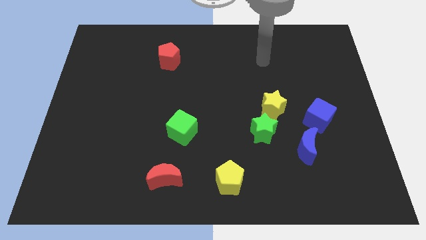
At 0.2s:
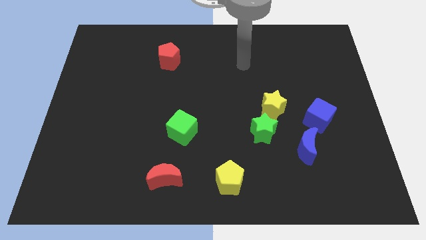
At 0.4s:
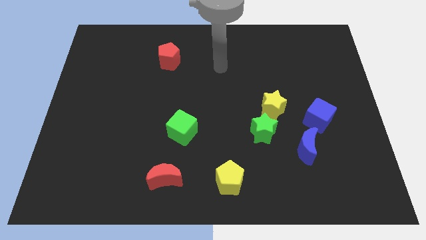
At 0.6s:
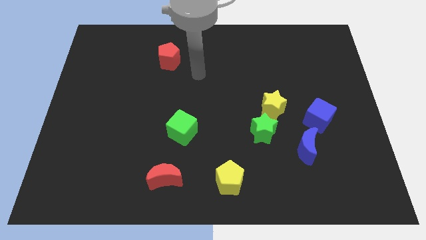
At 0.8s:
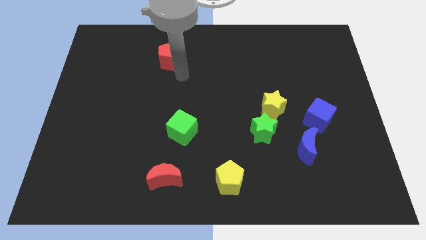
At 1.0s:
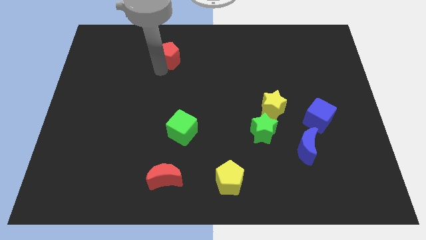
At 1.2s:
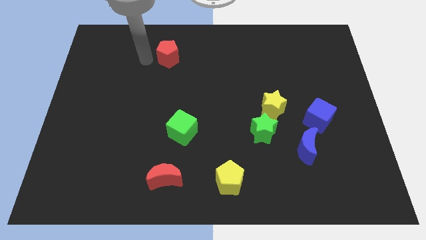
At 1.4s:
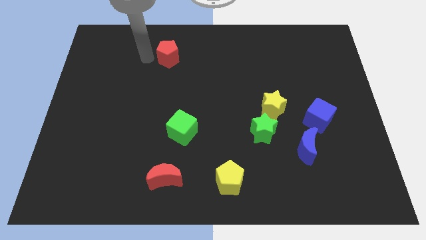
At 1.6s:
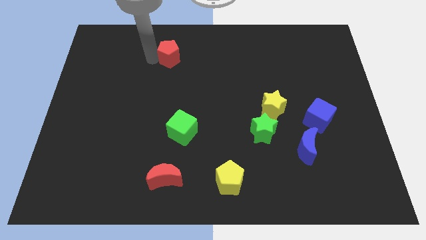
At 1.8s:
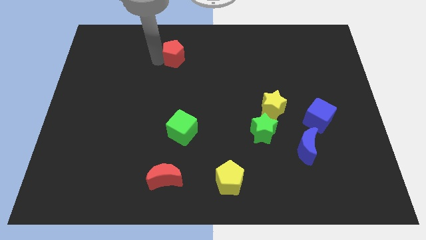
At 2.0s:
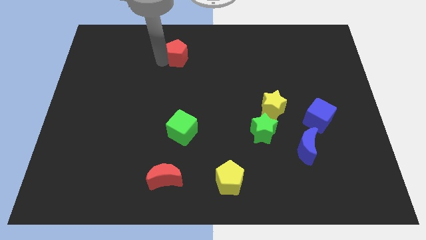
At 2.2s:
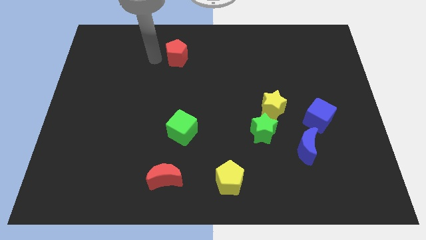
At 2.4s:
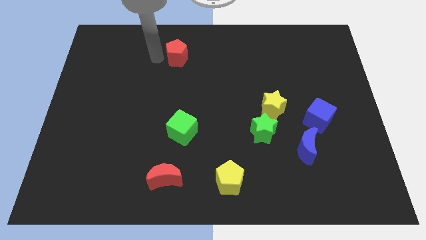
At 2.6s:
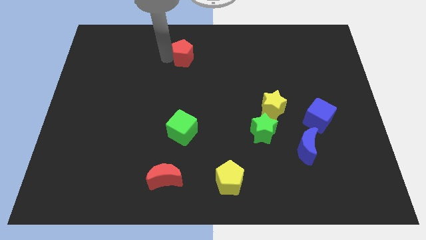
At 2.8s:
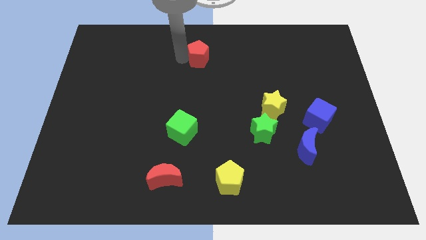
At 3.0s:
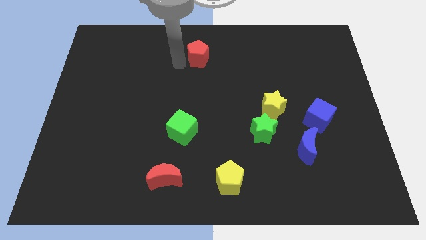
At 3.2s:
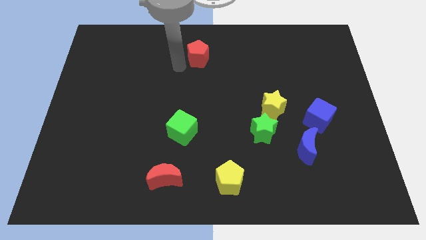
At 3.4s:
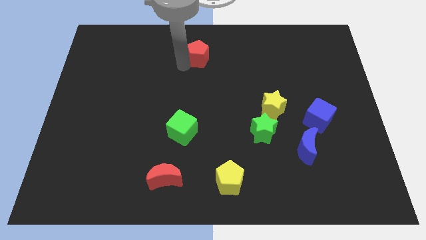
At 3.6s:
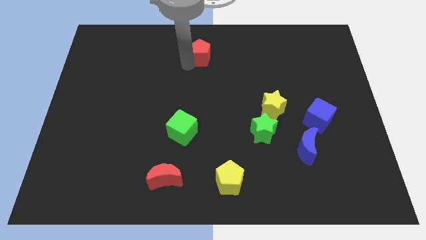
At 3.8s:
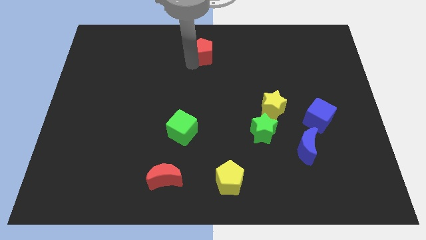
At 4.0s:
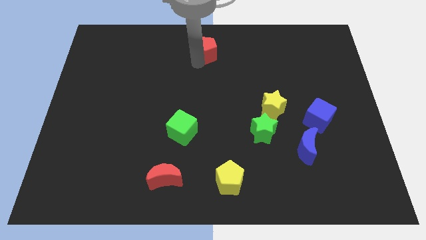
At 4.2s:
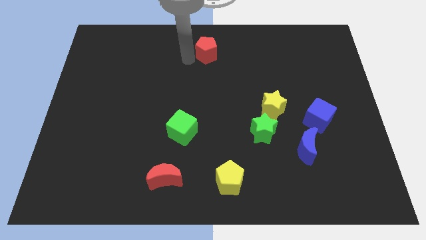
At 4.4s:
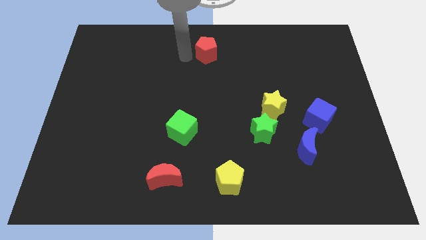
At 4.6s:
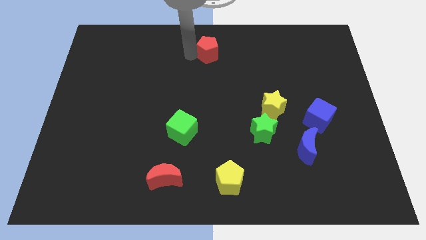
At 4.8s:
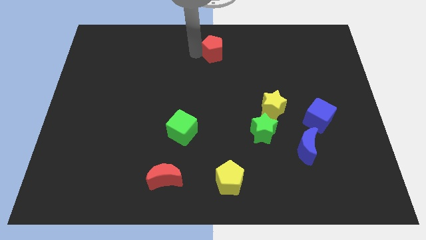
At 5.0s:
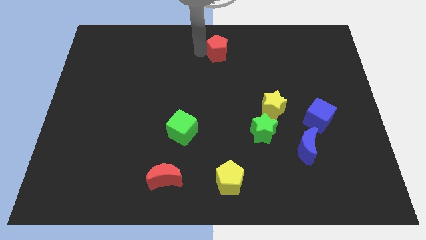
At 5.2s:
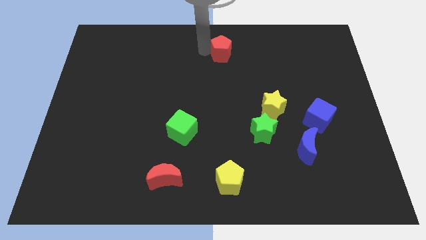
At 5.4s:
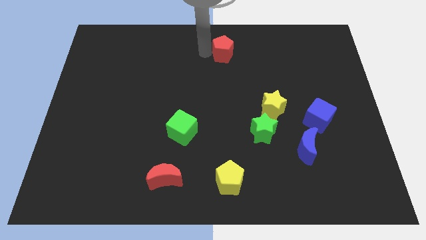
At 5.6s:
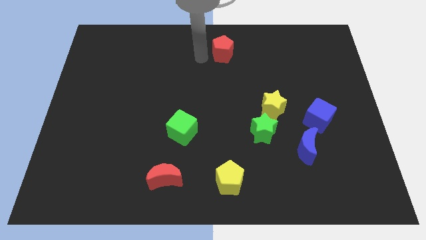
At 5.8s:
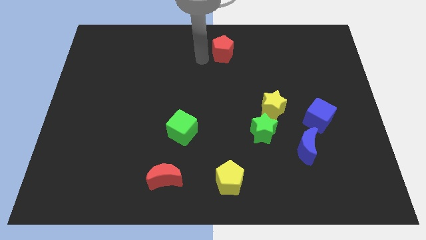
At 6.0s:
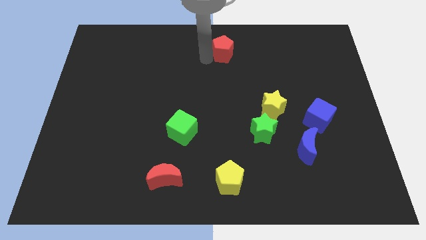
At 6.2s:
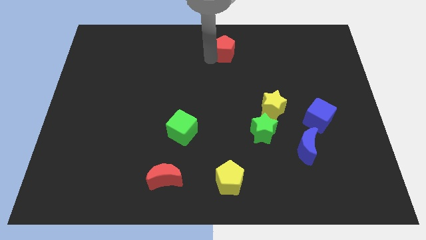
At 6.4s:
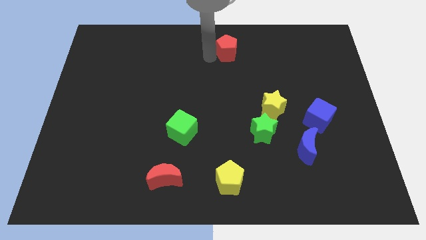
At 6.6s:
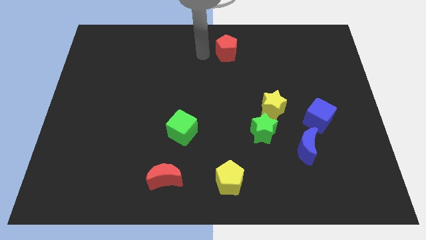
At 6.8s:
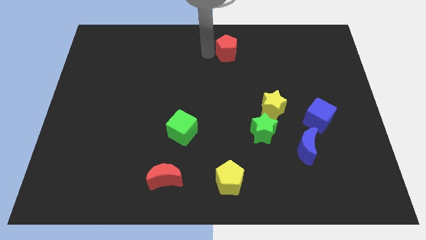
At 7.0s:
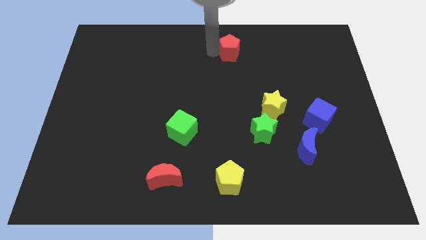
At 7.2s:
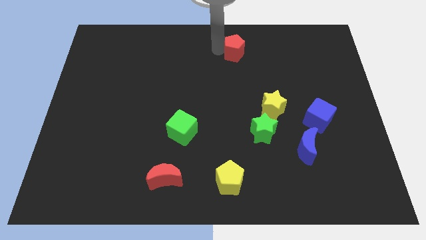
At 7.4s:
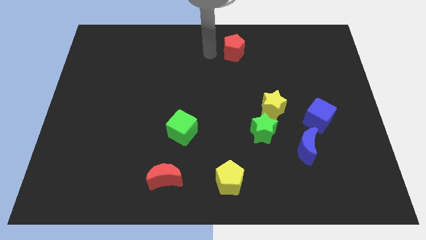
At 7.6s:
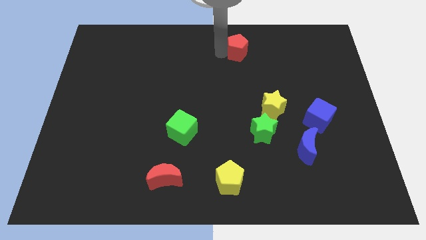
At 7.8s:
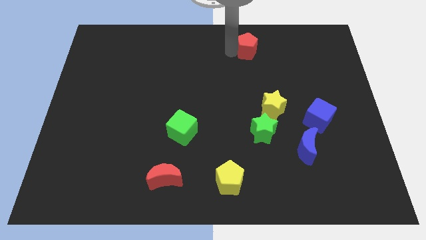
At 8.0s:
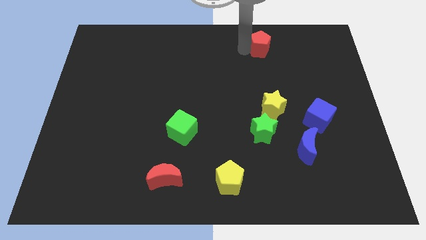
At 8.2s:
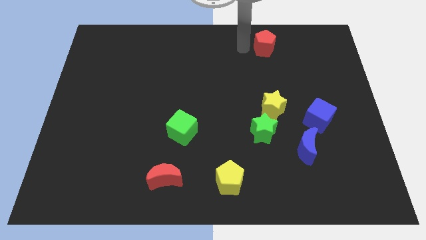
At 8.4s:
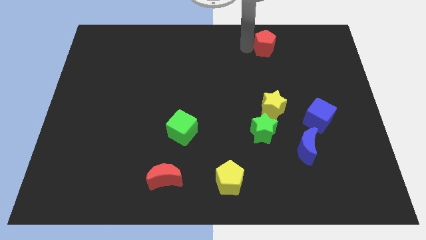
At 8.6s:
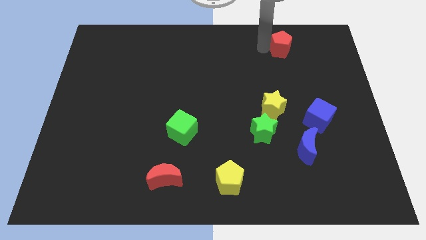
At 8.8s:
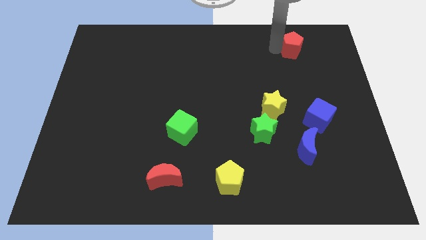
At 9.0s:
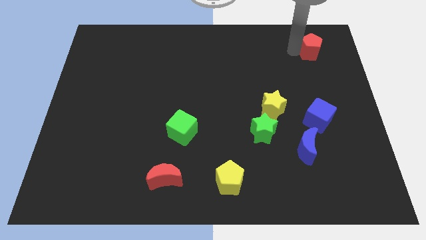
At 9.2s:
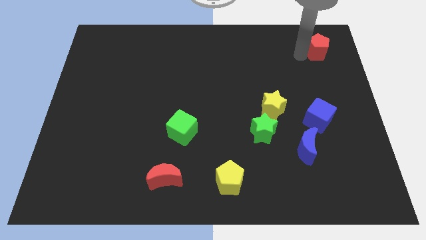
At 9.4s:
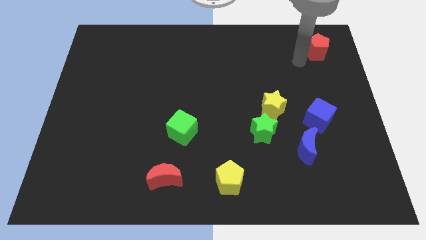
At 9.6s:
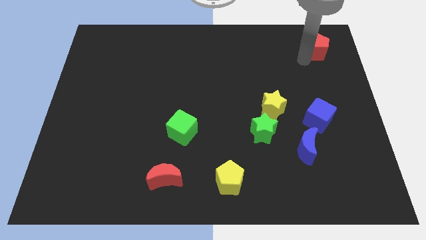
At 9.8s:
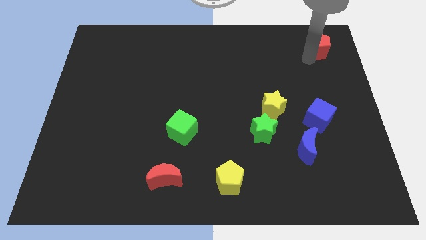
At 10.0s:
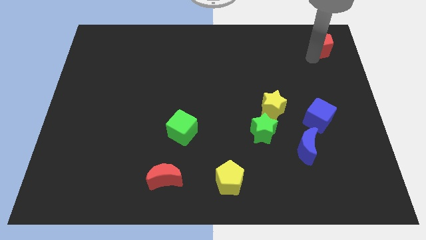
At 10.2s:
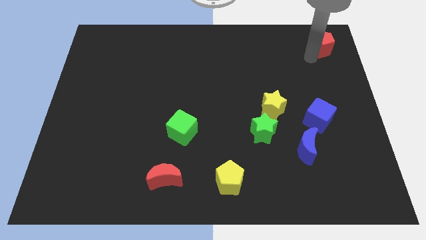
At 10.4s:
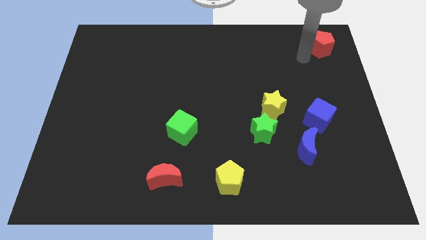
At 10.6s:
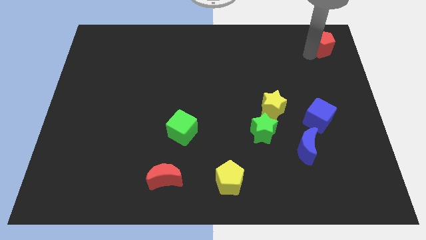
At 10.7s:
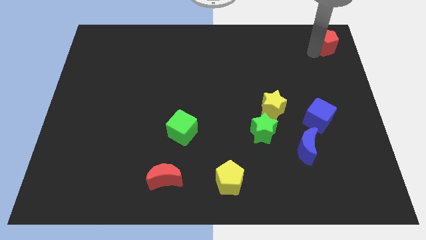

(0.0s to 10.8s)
put the red pentagon to the top right corner

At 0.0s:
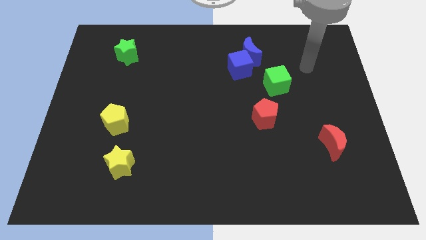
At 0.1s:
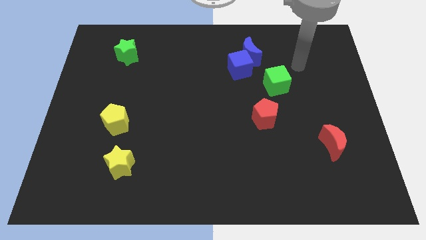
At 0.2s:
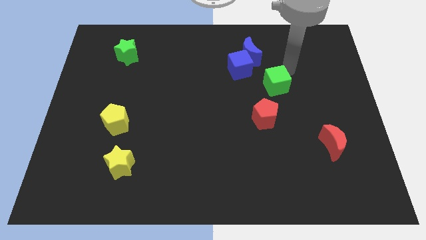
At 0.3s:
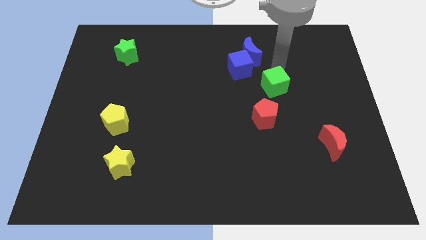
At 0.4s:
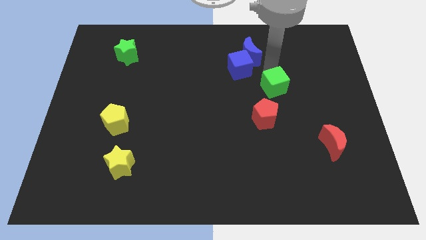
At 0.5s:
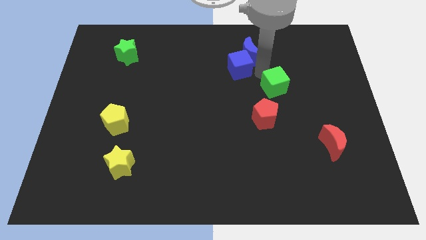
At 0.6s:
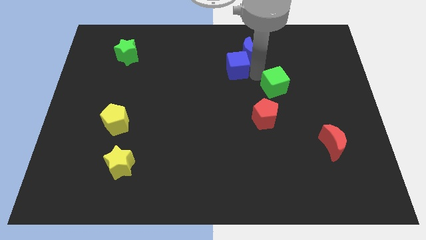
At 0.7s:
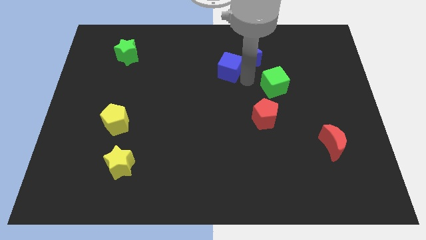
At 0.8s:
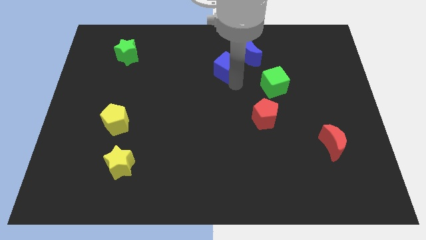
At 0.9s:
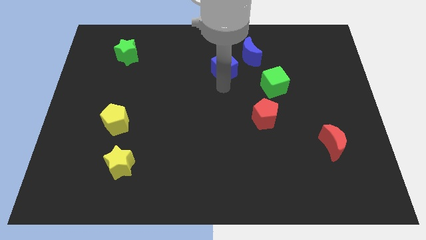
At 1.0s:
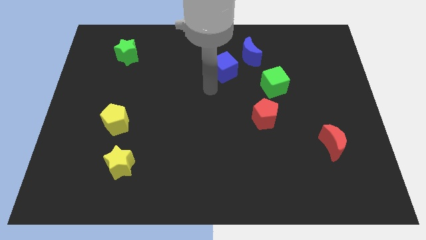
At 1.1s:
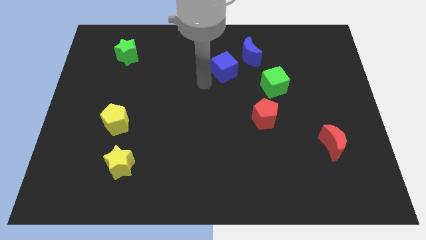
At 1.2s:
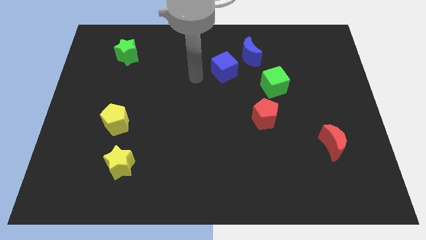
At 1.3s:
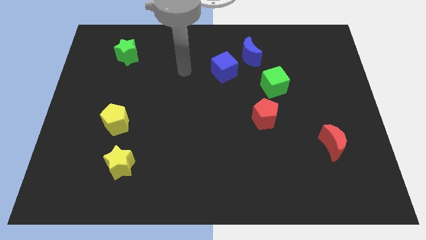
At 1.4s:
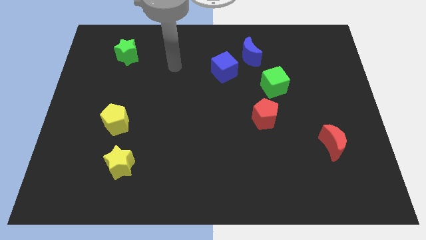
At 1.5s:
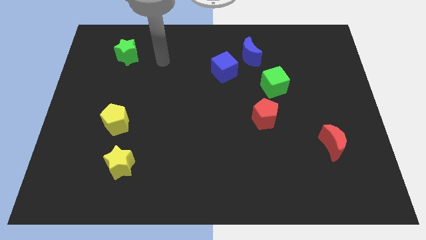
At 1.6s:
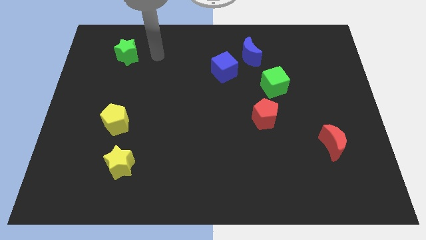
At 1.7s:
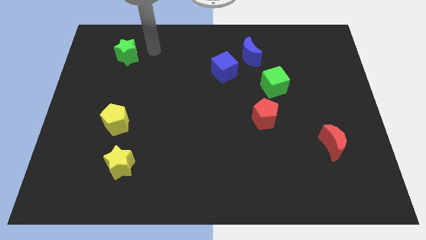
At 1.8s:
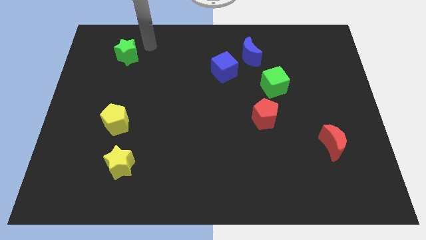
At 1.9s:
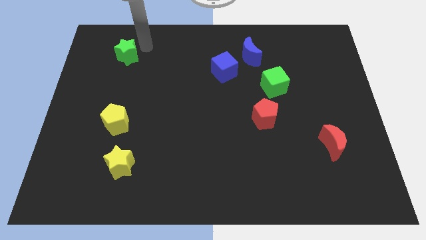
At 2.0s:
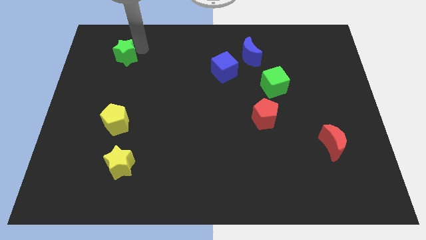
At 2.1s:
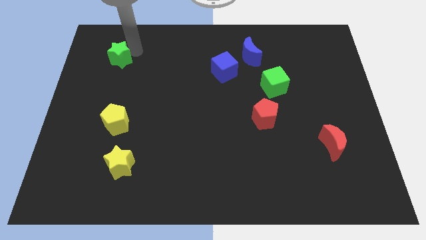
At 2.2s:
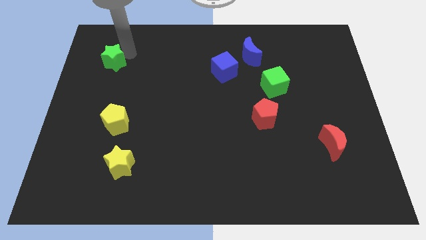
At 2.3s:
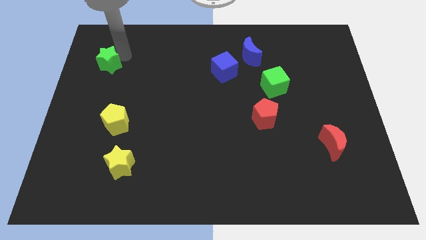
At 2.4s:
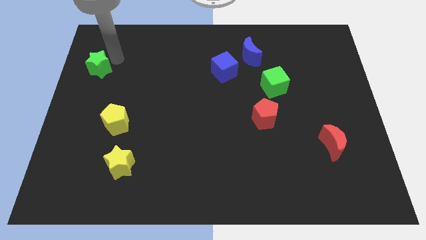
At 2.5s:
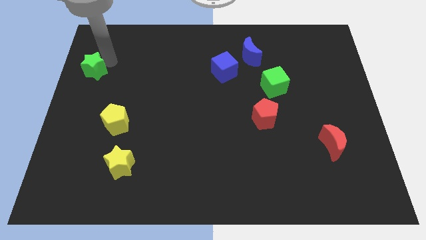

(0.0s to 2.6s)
push the green star to the left side
